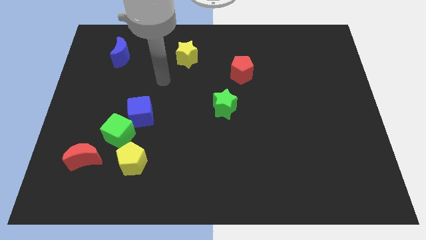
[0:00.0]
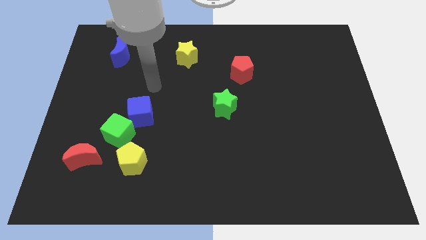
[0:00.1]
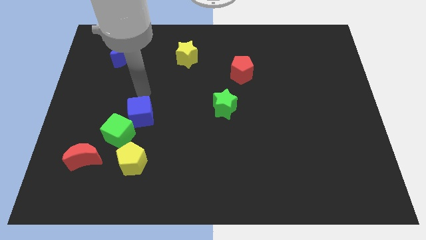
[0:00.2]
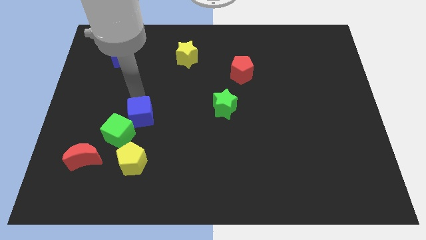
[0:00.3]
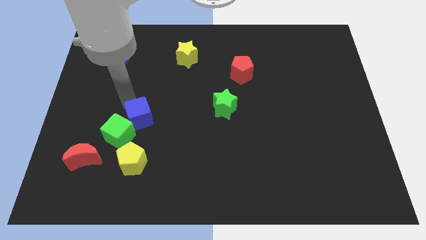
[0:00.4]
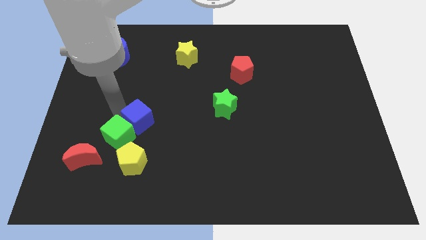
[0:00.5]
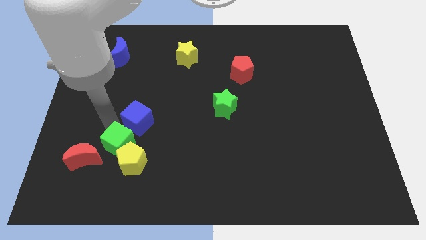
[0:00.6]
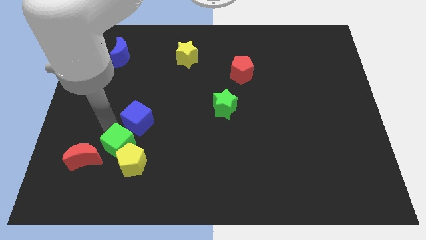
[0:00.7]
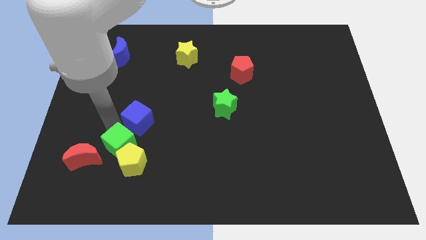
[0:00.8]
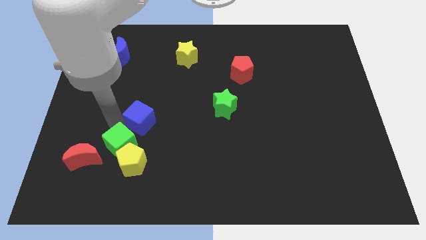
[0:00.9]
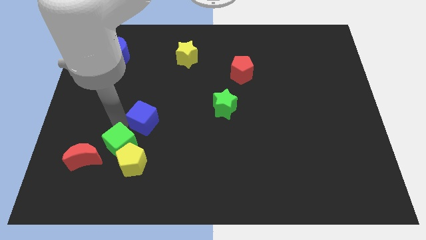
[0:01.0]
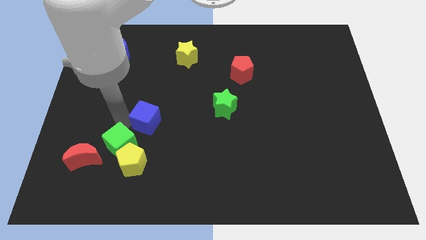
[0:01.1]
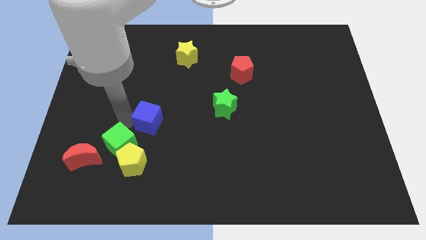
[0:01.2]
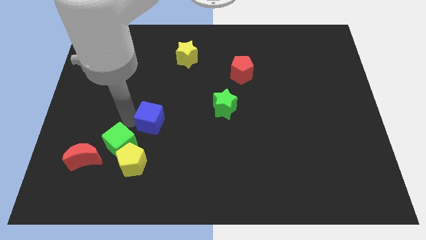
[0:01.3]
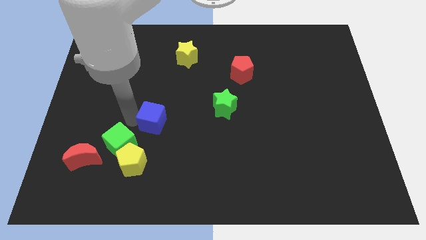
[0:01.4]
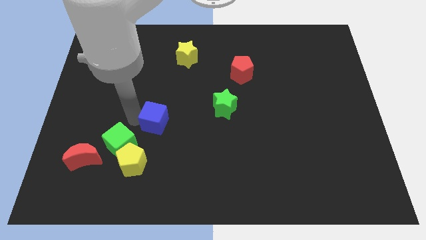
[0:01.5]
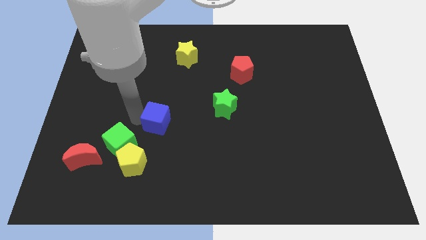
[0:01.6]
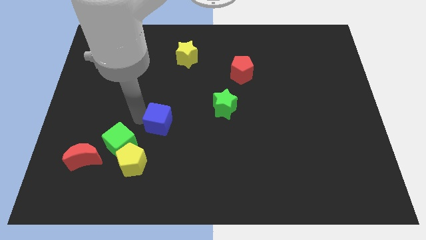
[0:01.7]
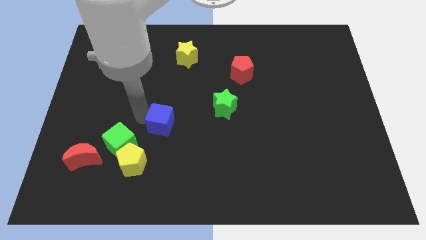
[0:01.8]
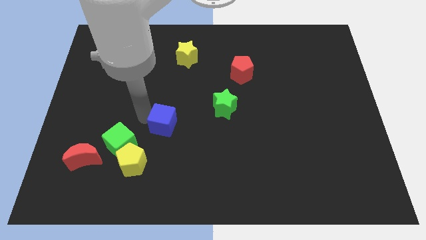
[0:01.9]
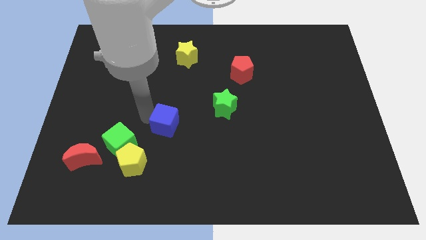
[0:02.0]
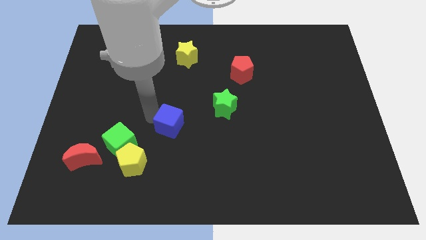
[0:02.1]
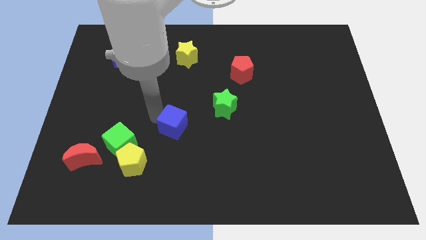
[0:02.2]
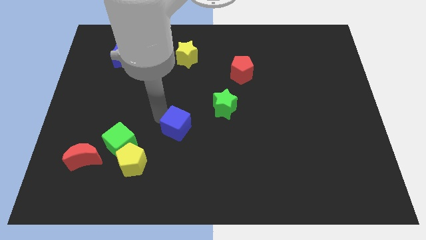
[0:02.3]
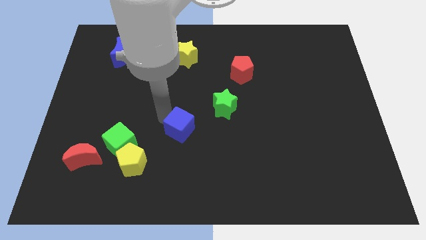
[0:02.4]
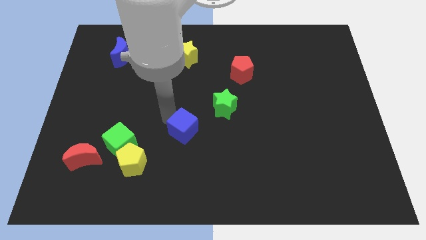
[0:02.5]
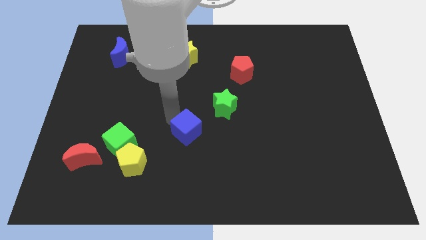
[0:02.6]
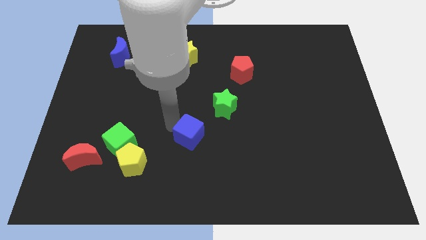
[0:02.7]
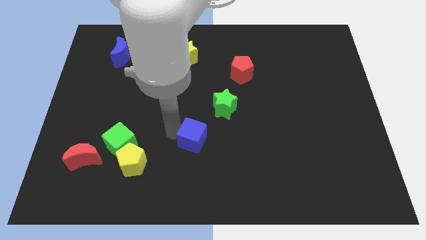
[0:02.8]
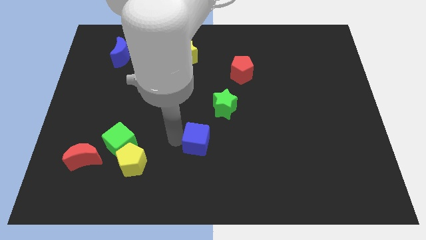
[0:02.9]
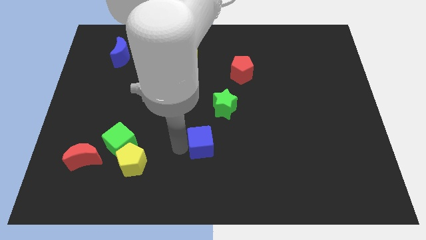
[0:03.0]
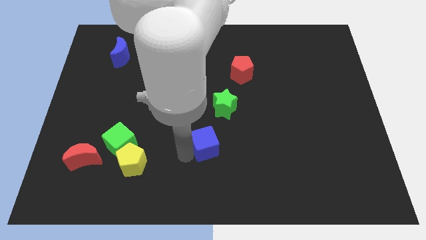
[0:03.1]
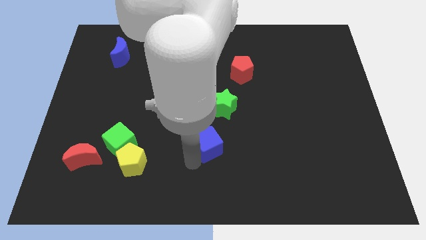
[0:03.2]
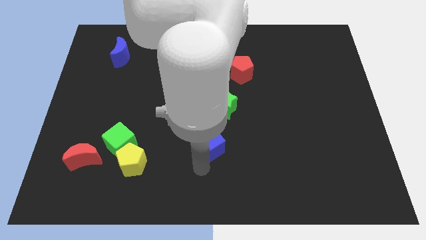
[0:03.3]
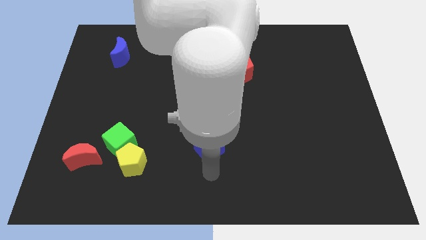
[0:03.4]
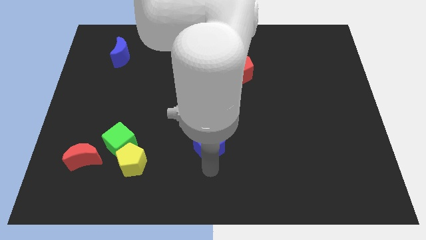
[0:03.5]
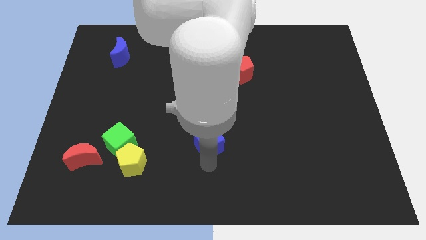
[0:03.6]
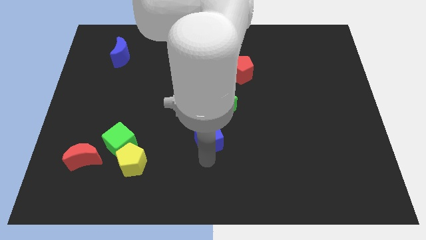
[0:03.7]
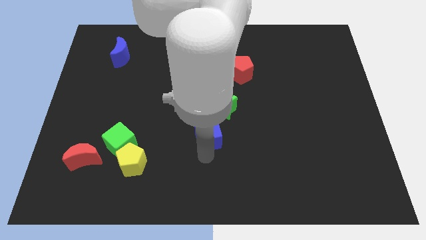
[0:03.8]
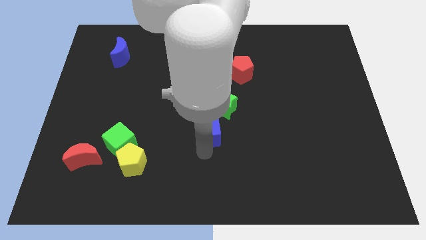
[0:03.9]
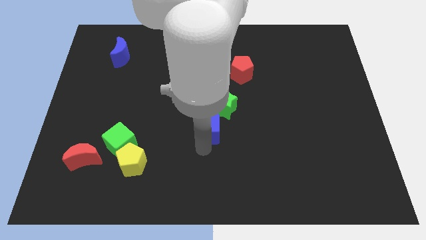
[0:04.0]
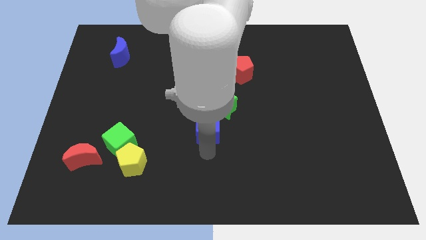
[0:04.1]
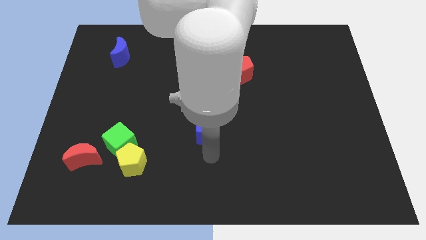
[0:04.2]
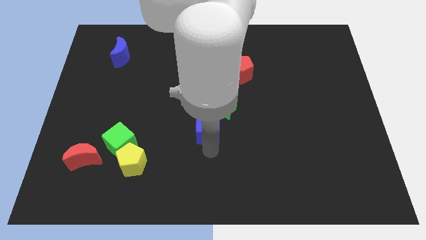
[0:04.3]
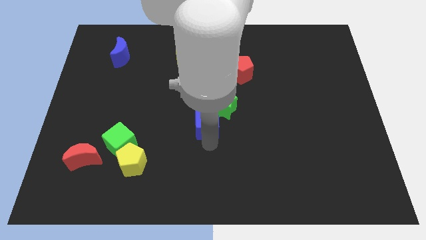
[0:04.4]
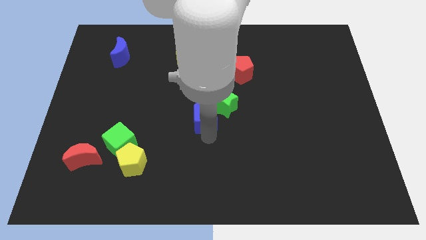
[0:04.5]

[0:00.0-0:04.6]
move the blue cube towards the green star

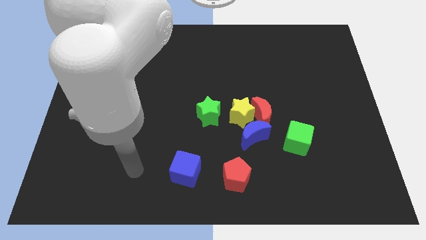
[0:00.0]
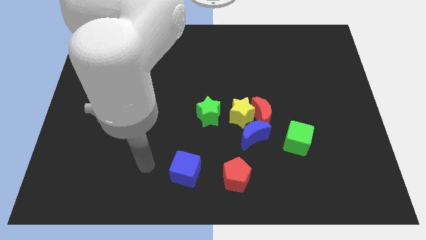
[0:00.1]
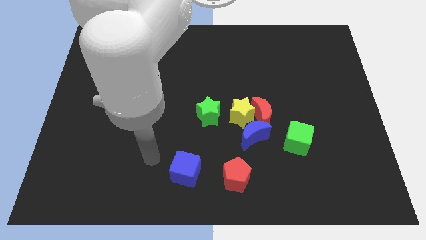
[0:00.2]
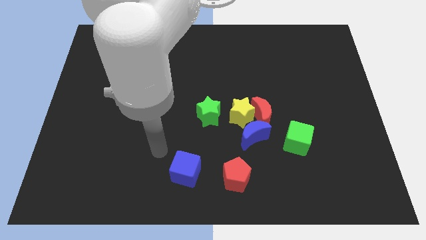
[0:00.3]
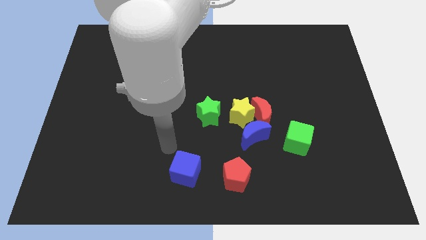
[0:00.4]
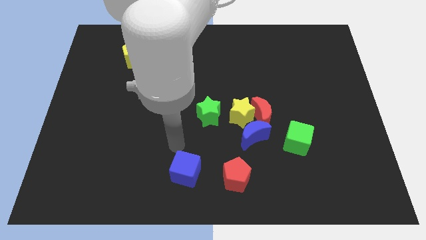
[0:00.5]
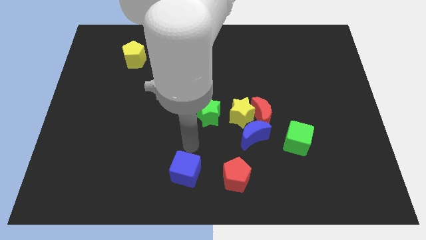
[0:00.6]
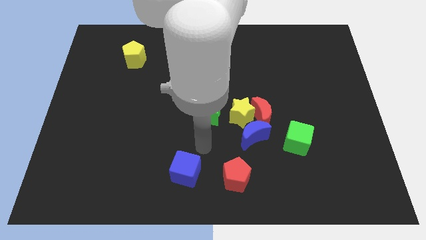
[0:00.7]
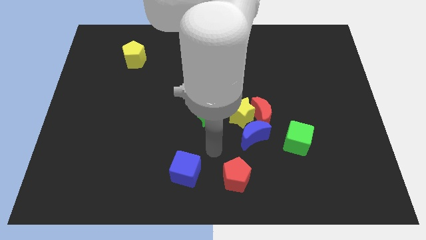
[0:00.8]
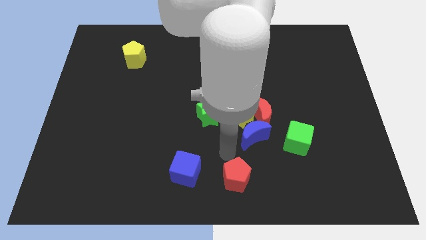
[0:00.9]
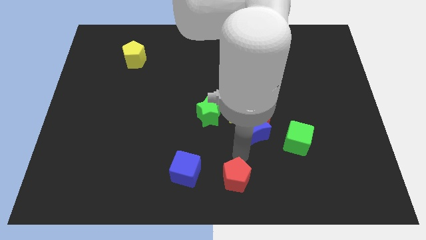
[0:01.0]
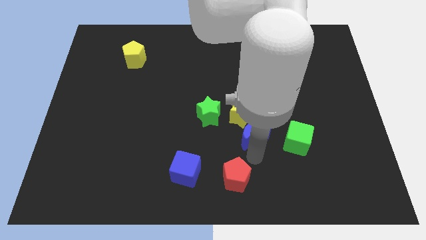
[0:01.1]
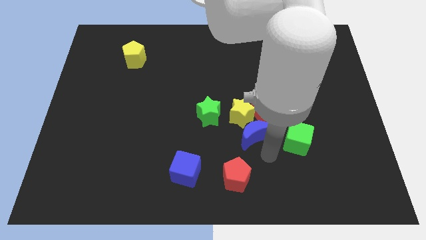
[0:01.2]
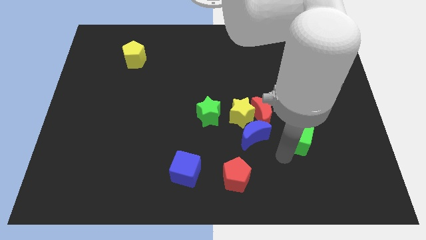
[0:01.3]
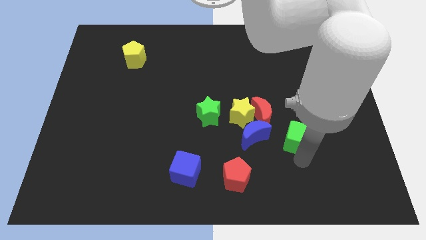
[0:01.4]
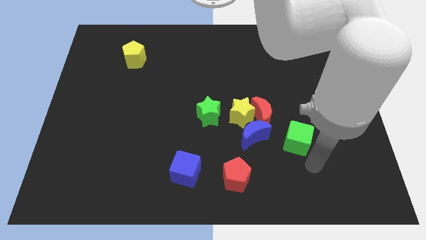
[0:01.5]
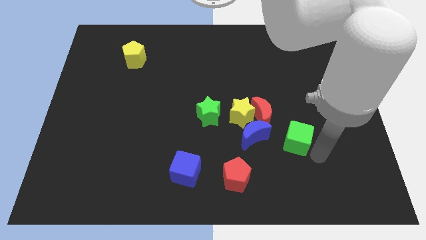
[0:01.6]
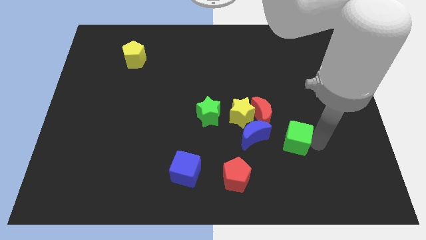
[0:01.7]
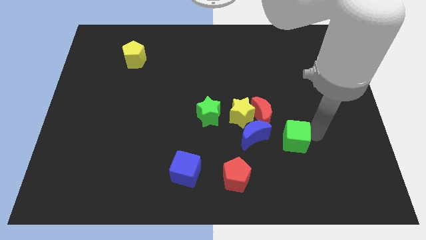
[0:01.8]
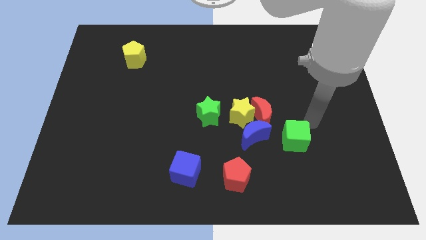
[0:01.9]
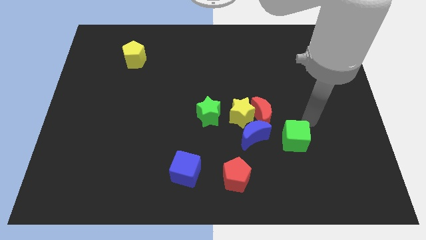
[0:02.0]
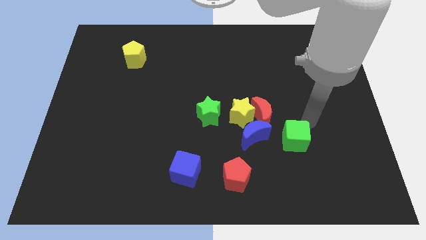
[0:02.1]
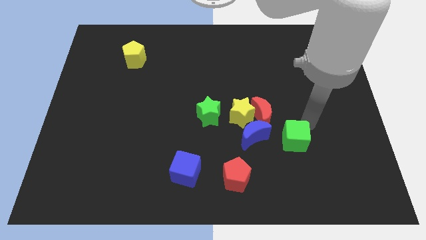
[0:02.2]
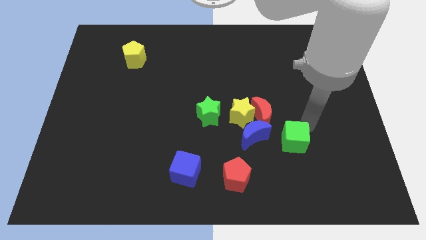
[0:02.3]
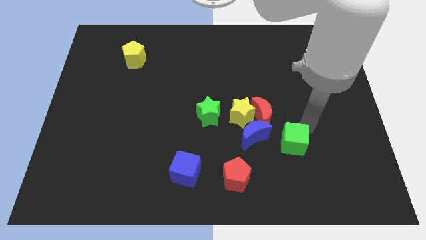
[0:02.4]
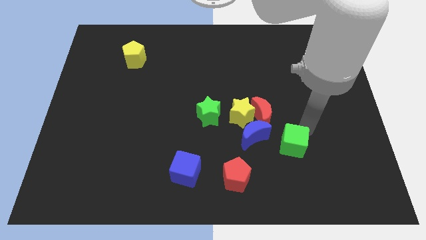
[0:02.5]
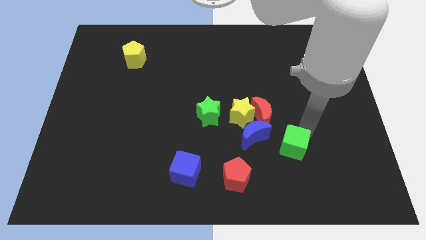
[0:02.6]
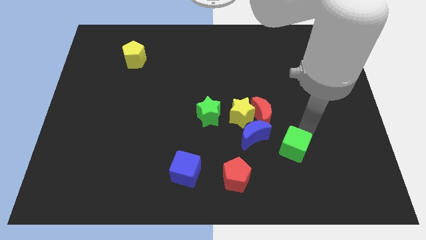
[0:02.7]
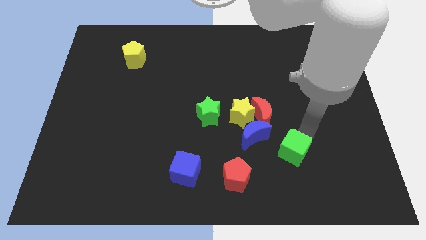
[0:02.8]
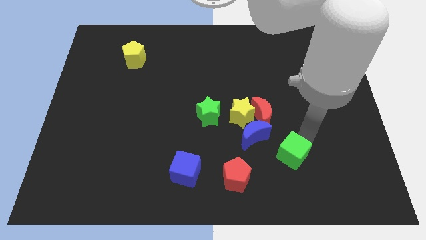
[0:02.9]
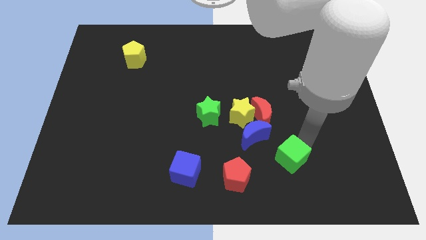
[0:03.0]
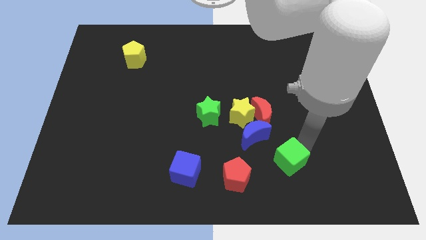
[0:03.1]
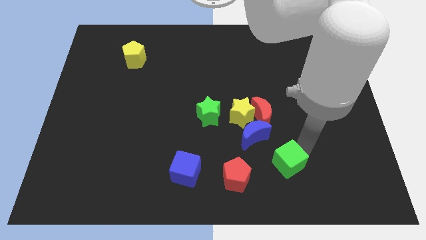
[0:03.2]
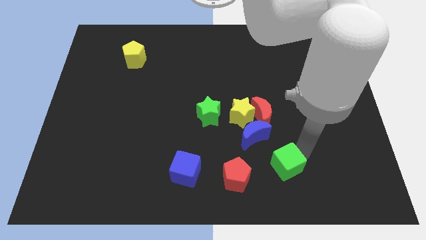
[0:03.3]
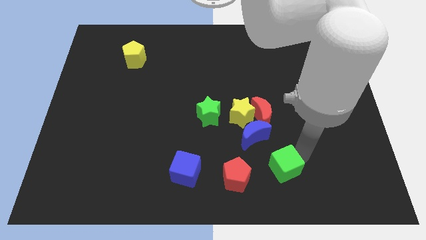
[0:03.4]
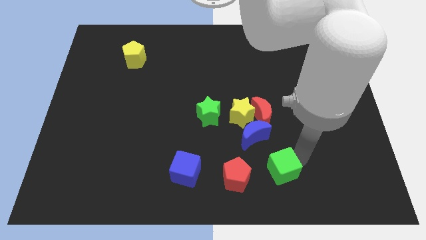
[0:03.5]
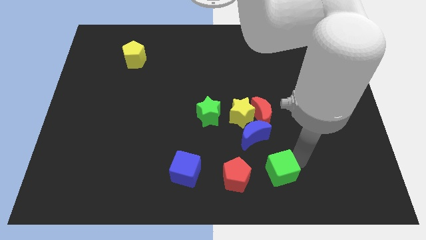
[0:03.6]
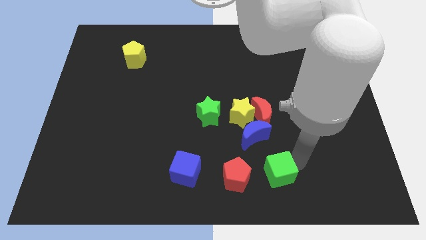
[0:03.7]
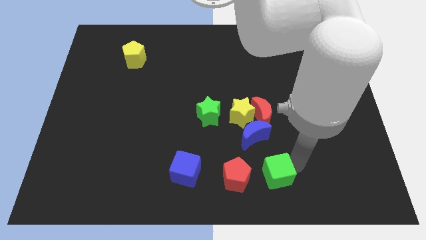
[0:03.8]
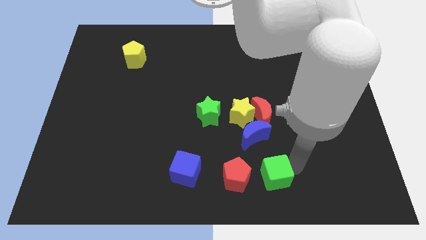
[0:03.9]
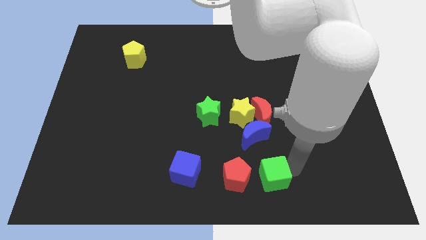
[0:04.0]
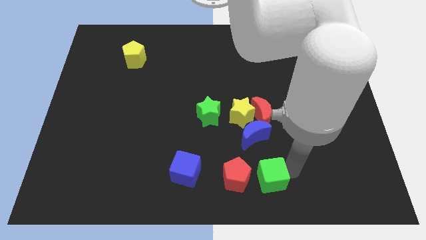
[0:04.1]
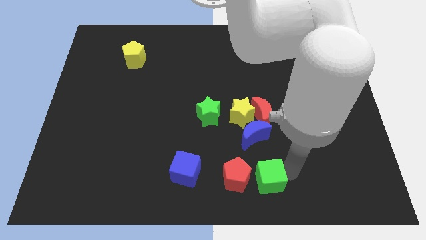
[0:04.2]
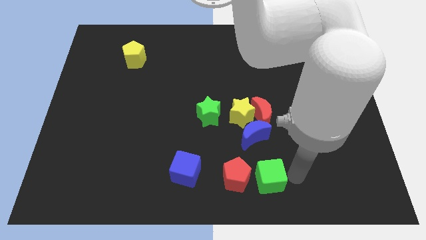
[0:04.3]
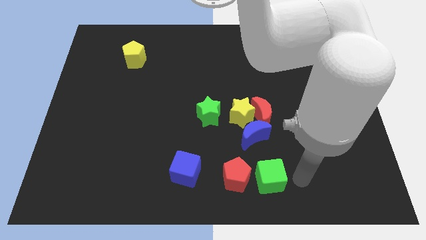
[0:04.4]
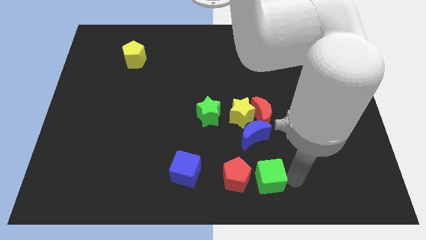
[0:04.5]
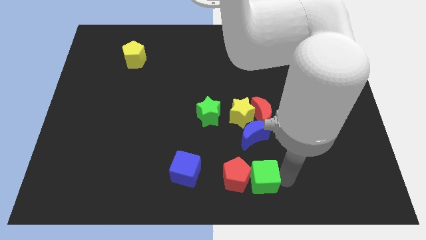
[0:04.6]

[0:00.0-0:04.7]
put the green cube towards the red pentagon
